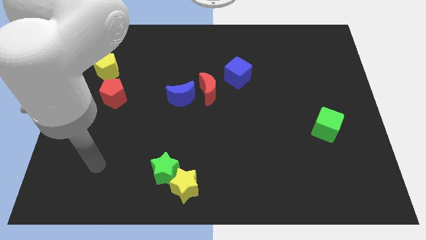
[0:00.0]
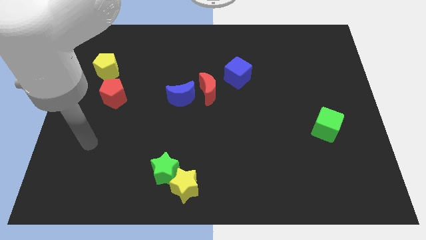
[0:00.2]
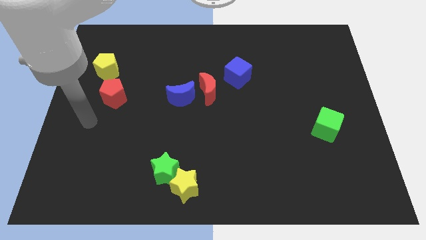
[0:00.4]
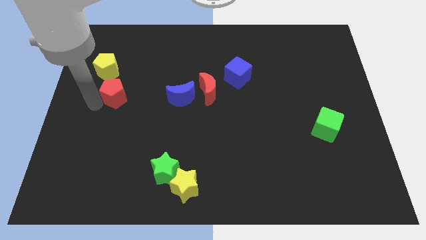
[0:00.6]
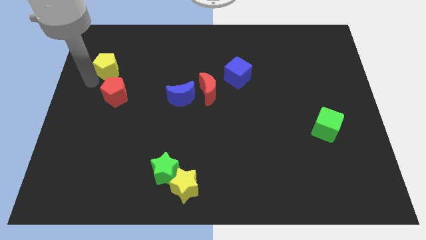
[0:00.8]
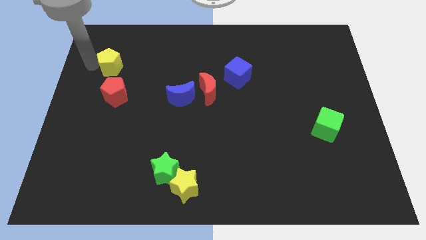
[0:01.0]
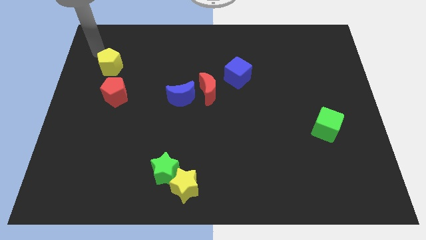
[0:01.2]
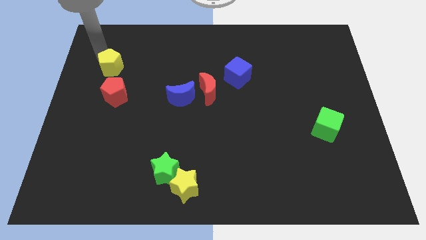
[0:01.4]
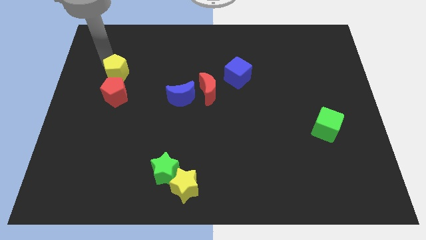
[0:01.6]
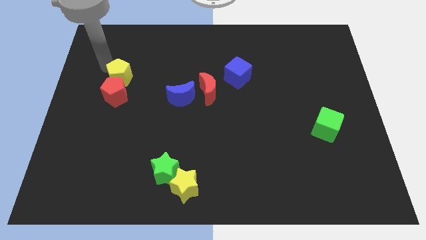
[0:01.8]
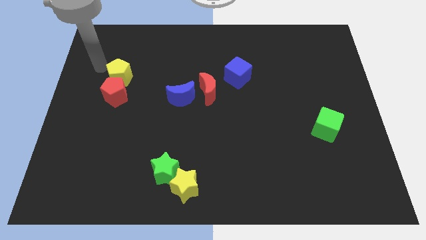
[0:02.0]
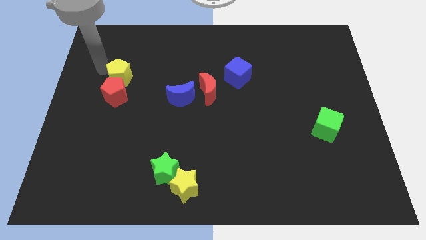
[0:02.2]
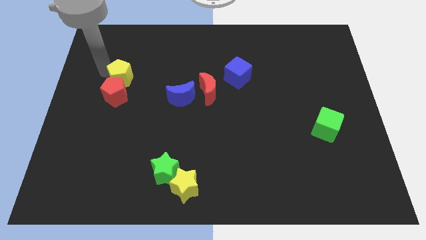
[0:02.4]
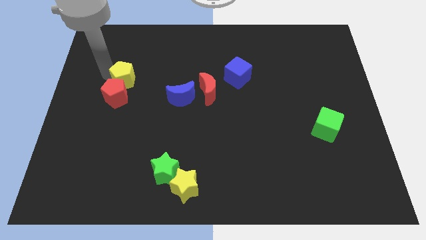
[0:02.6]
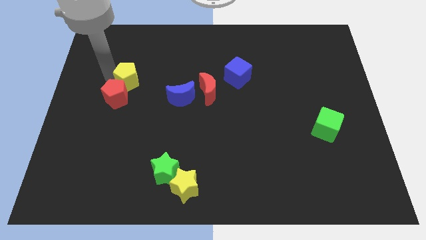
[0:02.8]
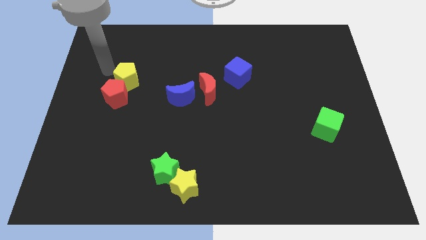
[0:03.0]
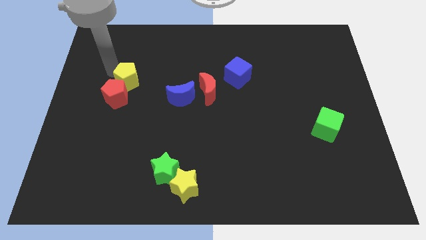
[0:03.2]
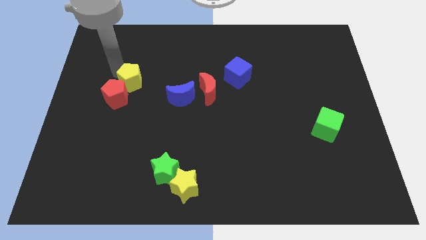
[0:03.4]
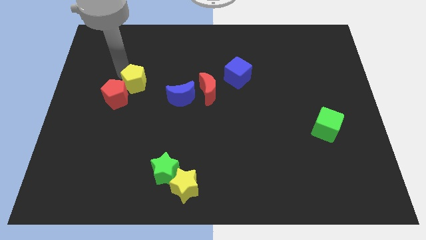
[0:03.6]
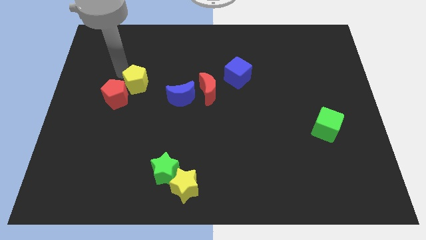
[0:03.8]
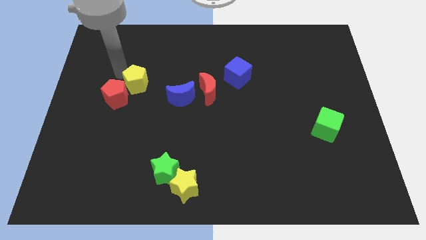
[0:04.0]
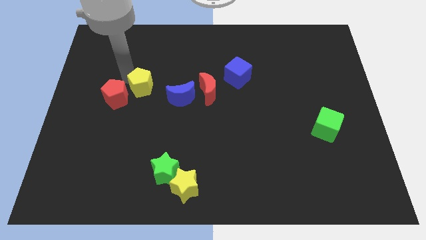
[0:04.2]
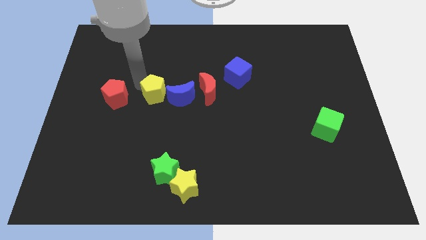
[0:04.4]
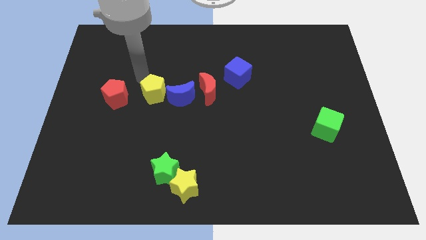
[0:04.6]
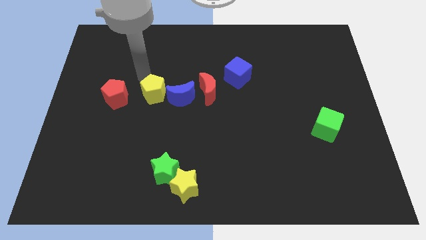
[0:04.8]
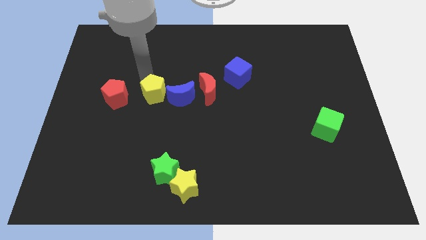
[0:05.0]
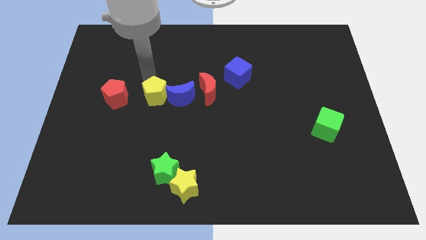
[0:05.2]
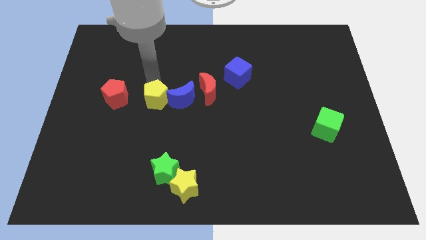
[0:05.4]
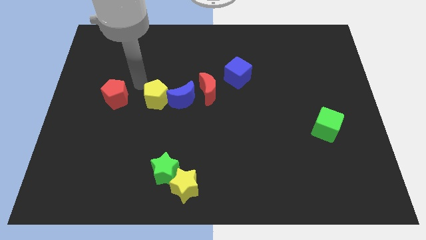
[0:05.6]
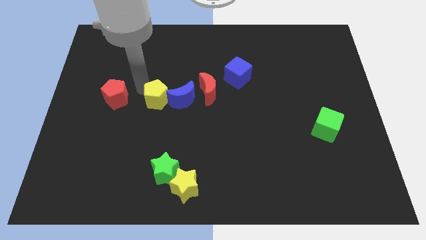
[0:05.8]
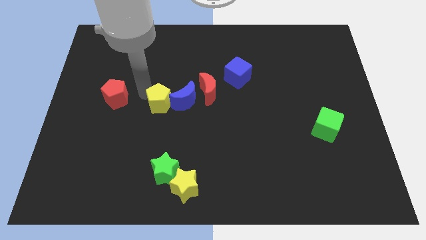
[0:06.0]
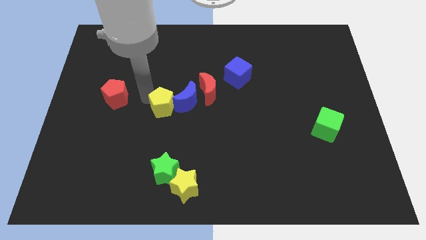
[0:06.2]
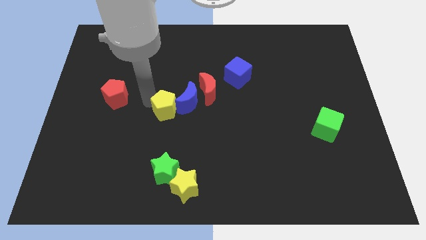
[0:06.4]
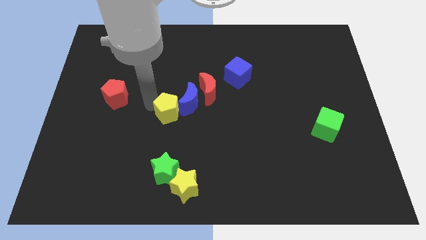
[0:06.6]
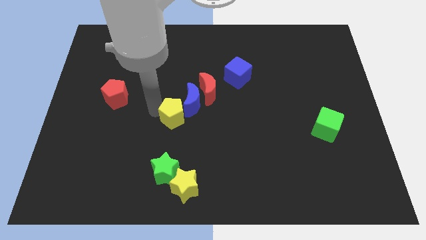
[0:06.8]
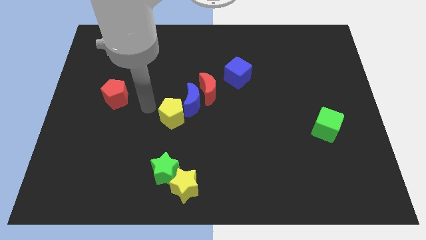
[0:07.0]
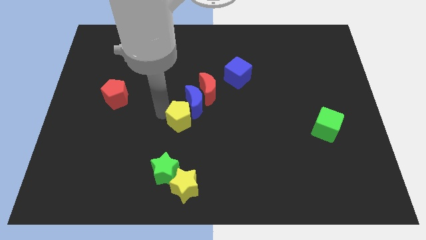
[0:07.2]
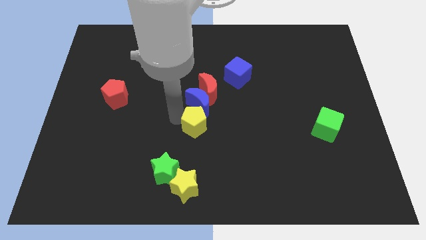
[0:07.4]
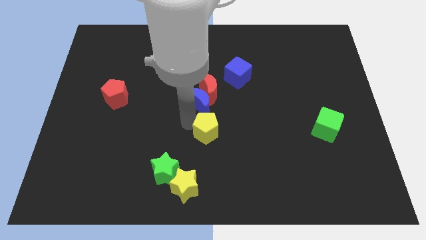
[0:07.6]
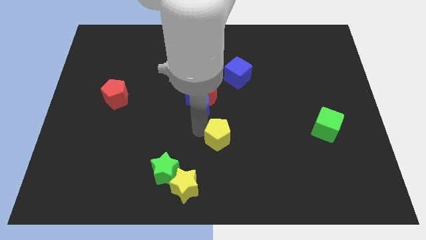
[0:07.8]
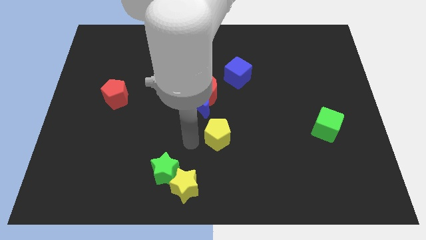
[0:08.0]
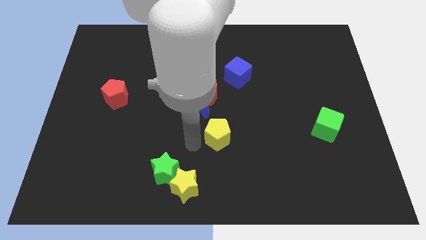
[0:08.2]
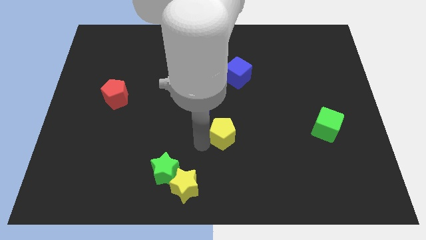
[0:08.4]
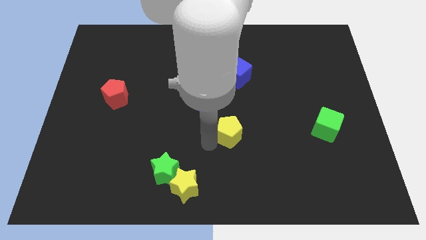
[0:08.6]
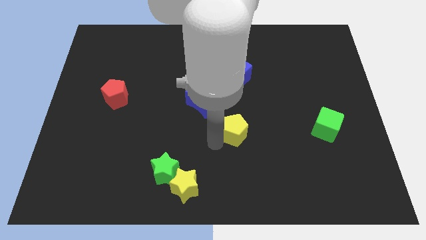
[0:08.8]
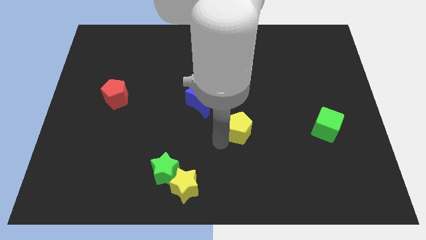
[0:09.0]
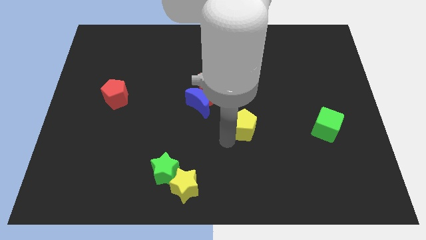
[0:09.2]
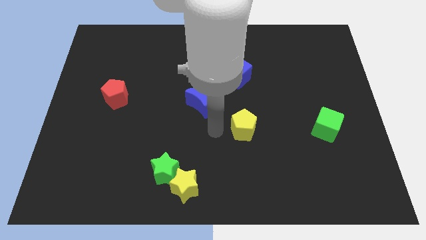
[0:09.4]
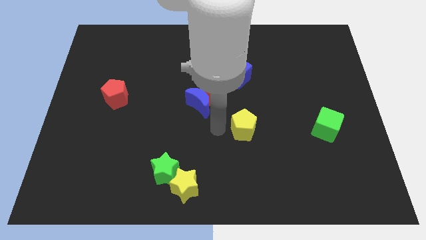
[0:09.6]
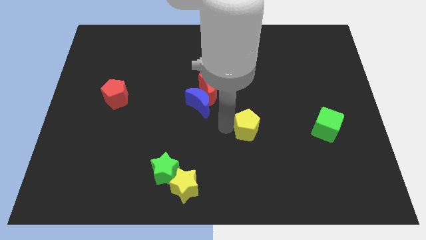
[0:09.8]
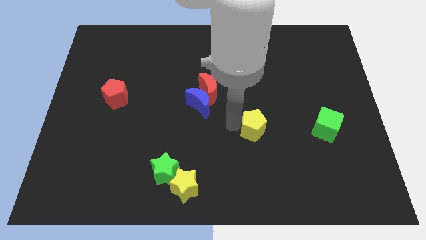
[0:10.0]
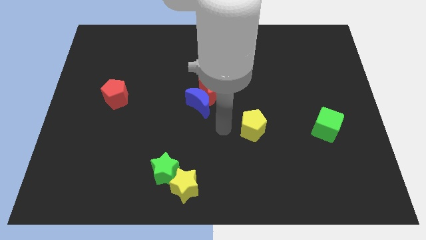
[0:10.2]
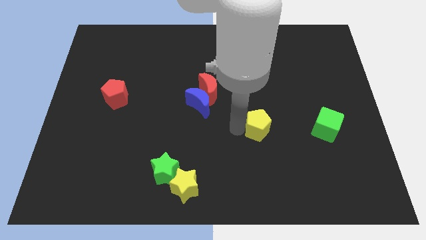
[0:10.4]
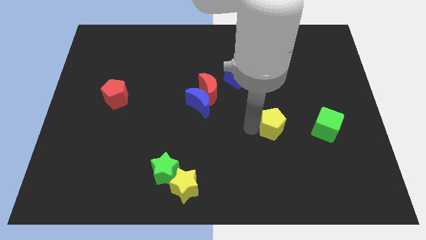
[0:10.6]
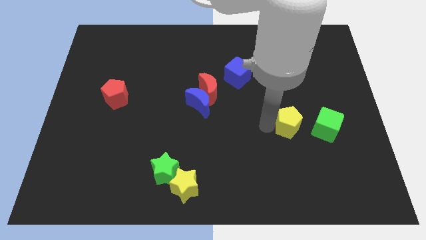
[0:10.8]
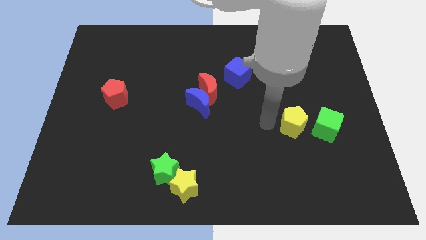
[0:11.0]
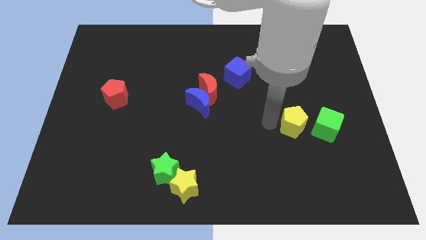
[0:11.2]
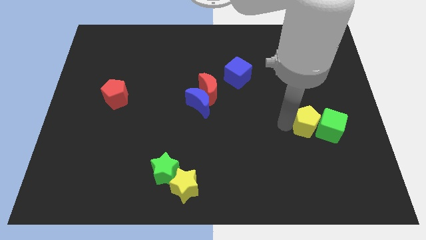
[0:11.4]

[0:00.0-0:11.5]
slide the yellow pentagon next to the green cube
